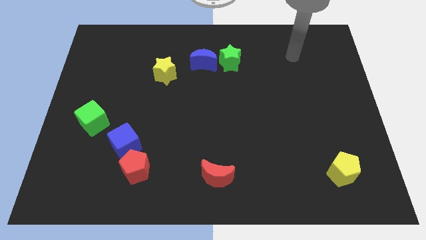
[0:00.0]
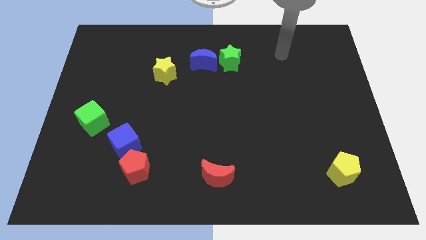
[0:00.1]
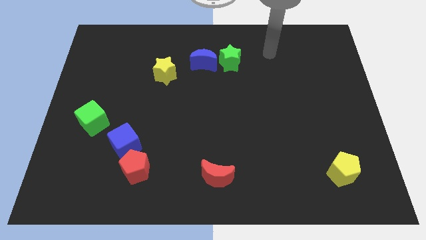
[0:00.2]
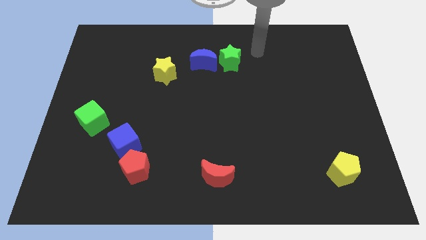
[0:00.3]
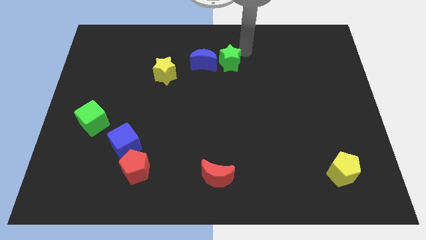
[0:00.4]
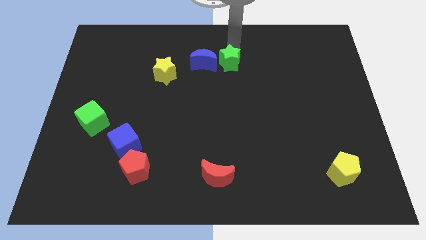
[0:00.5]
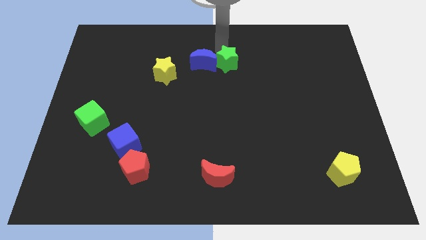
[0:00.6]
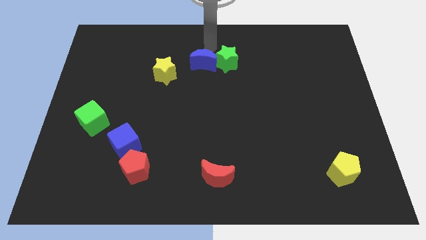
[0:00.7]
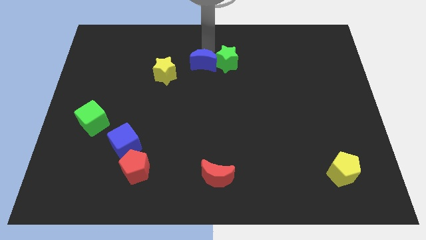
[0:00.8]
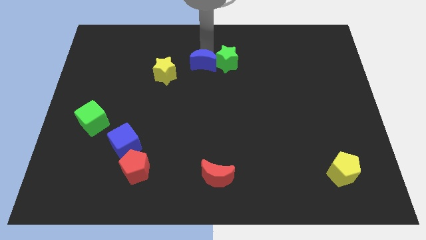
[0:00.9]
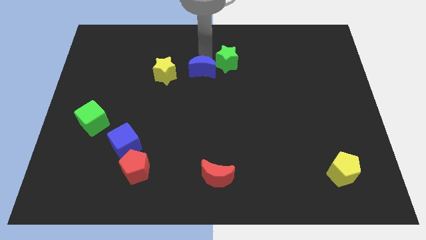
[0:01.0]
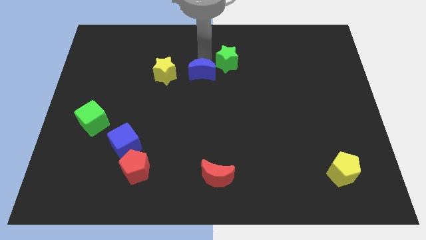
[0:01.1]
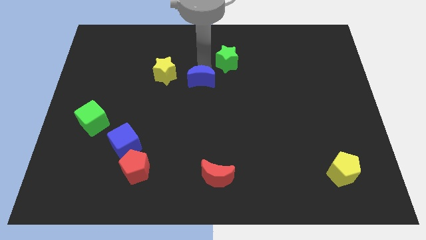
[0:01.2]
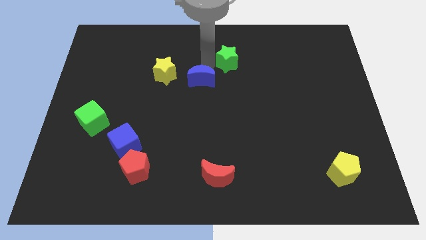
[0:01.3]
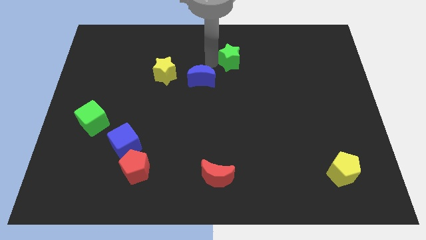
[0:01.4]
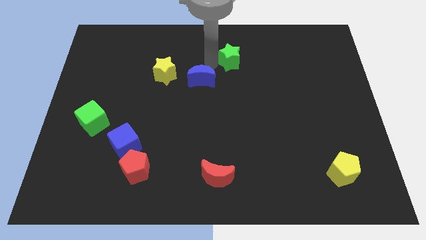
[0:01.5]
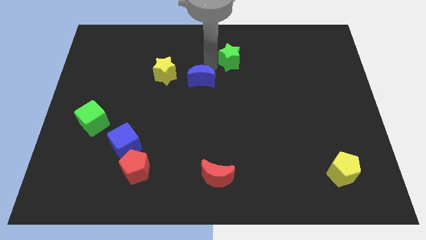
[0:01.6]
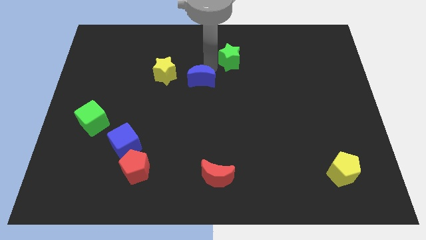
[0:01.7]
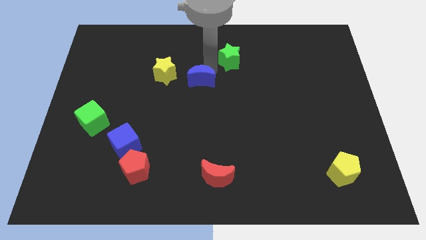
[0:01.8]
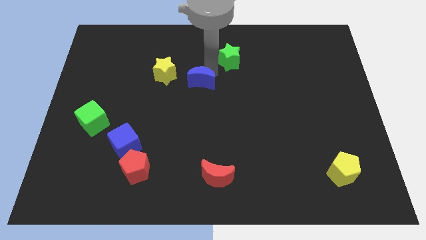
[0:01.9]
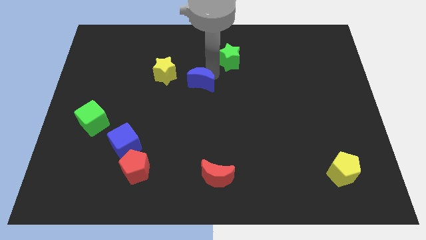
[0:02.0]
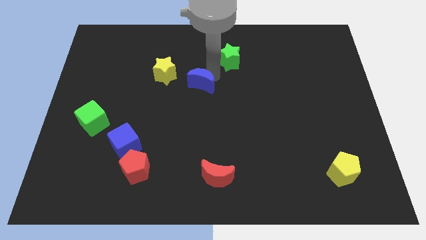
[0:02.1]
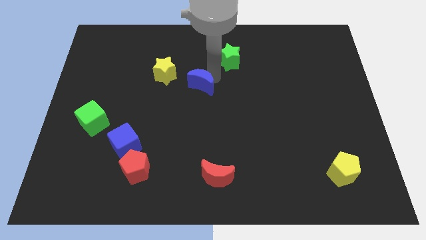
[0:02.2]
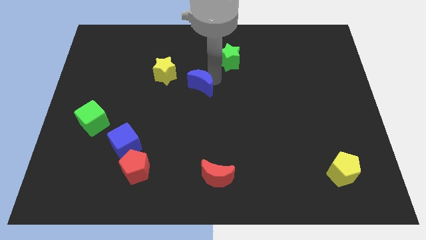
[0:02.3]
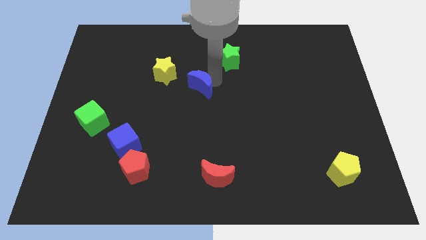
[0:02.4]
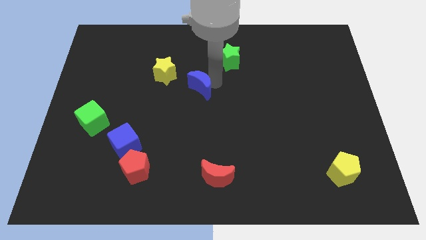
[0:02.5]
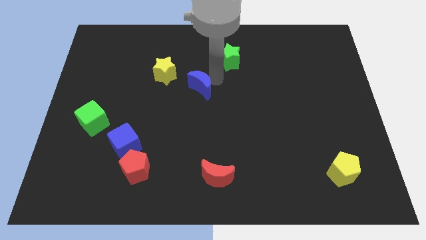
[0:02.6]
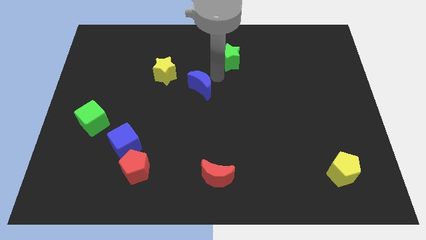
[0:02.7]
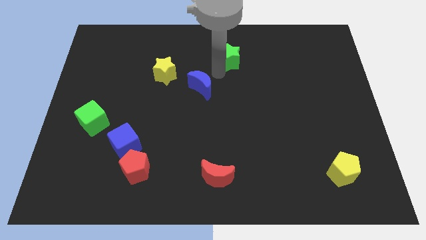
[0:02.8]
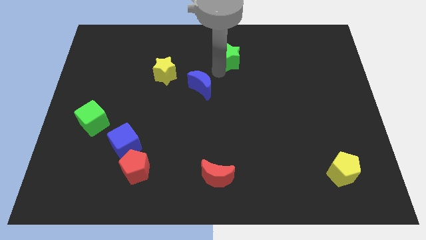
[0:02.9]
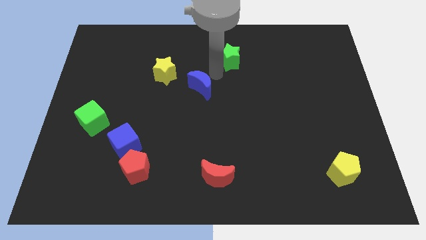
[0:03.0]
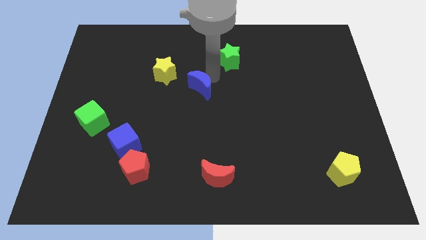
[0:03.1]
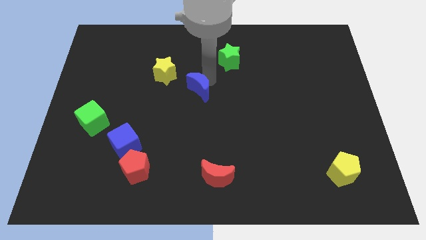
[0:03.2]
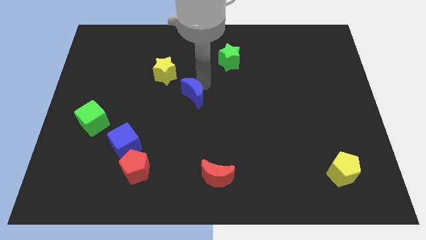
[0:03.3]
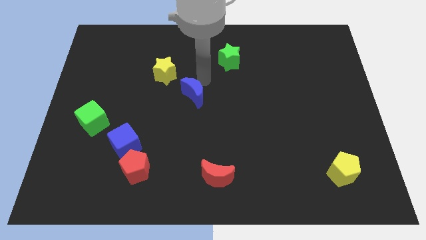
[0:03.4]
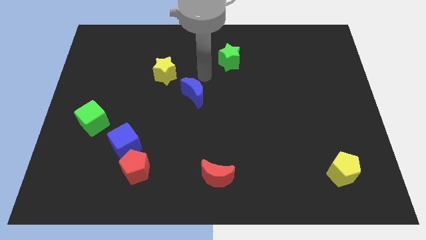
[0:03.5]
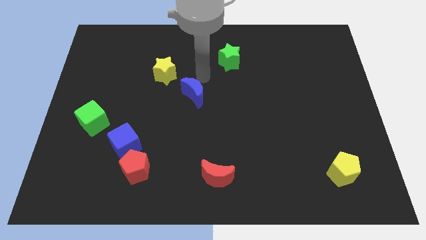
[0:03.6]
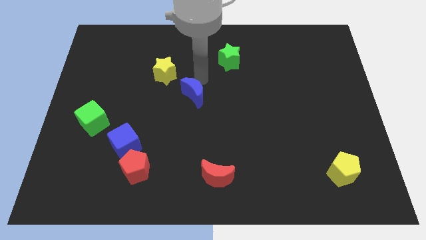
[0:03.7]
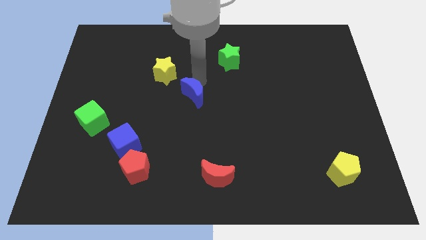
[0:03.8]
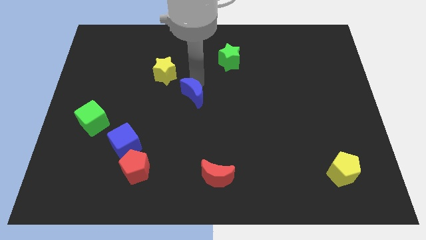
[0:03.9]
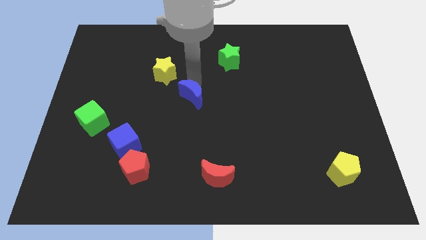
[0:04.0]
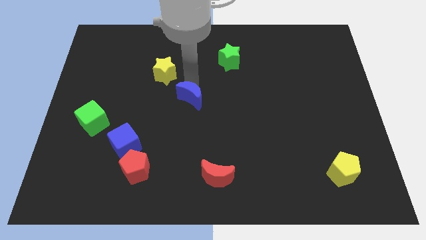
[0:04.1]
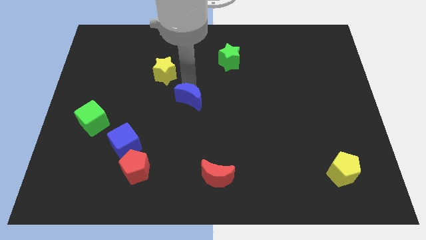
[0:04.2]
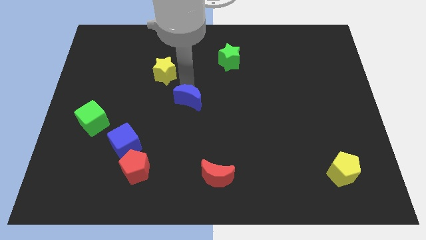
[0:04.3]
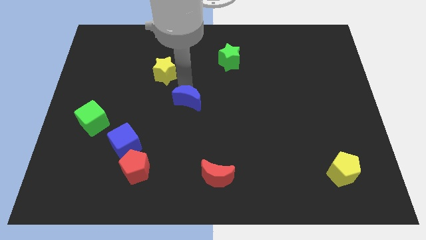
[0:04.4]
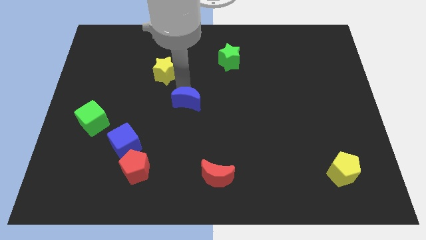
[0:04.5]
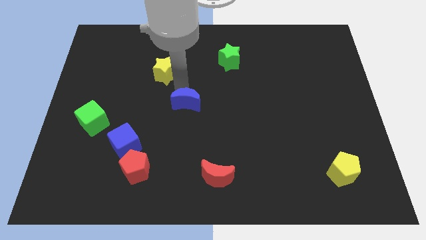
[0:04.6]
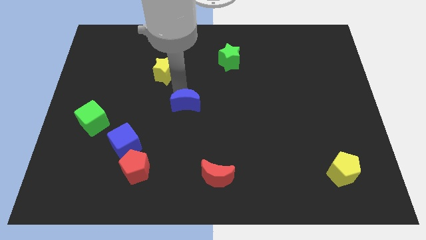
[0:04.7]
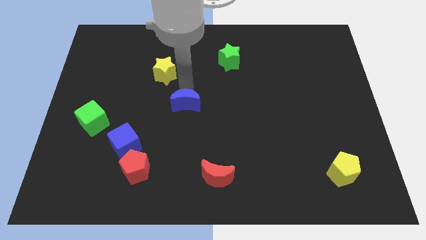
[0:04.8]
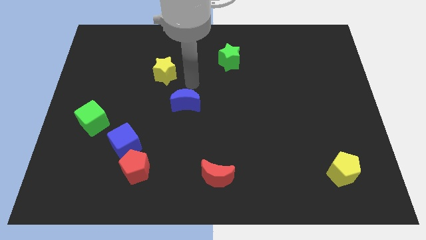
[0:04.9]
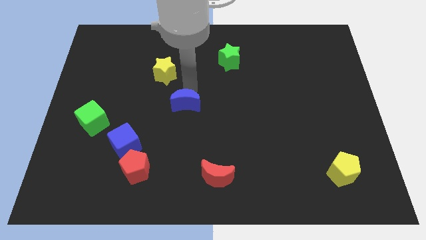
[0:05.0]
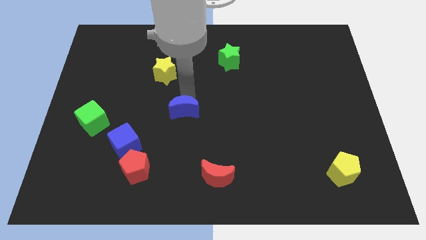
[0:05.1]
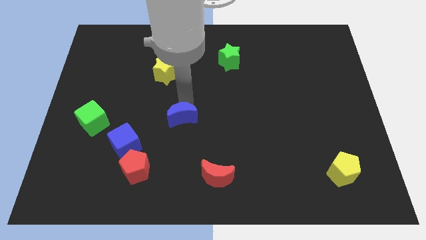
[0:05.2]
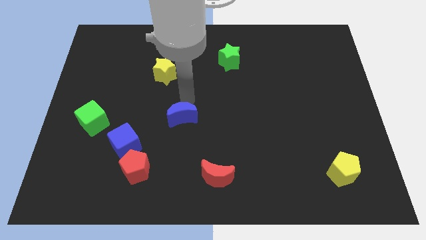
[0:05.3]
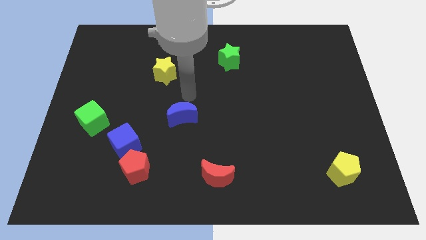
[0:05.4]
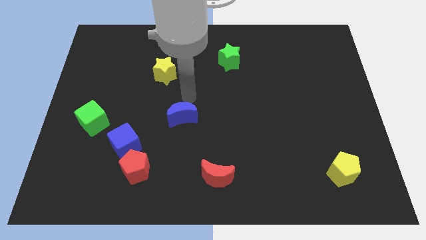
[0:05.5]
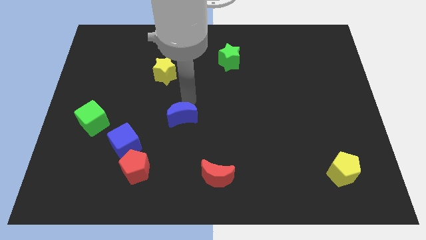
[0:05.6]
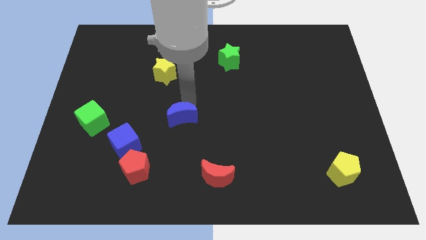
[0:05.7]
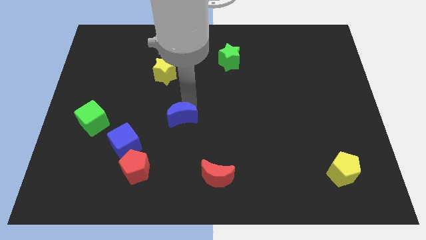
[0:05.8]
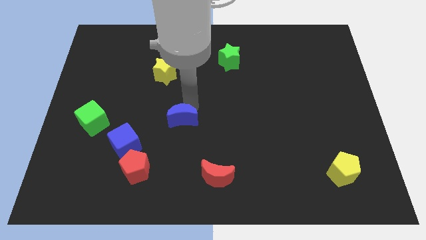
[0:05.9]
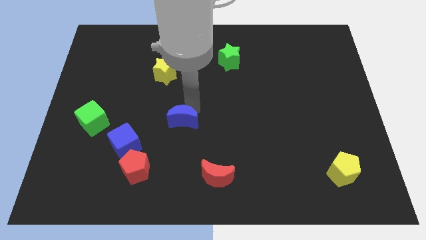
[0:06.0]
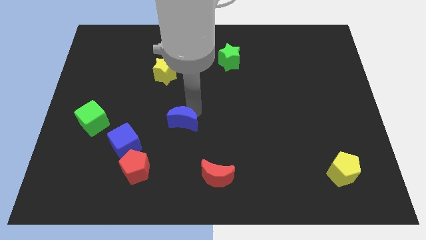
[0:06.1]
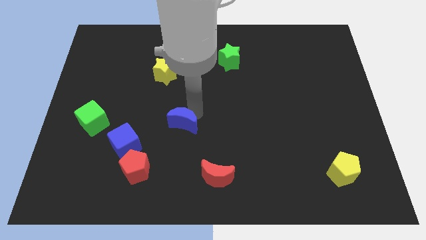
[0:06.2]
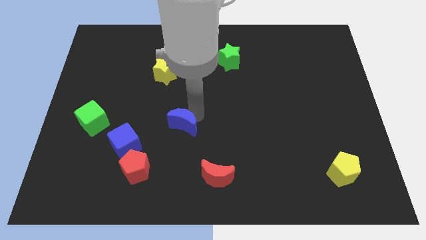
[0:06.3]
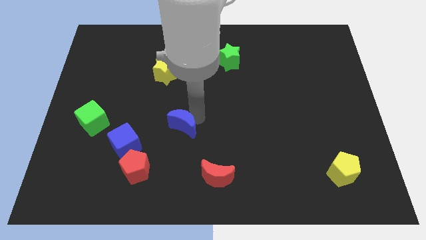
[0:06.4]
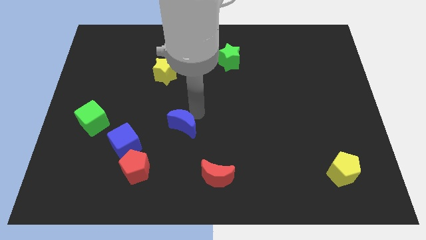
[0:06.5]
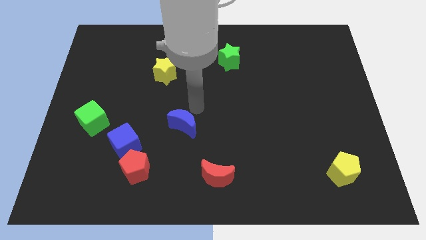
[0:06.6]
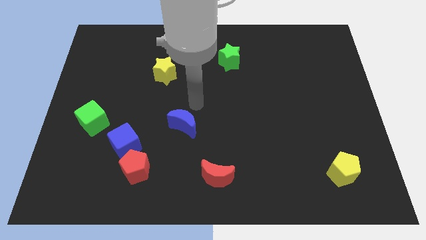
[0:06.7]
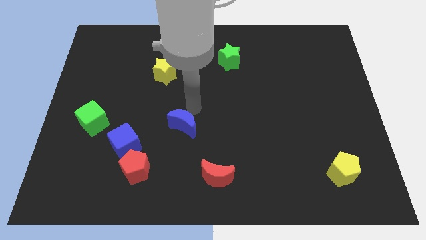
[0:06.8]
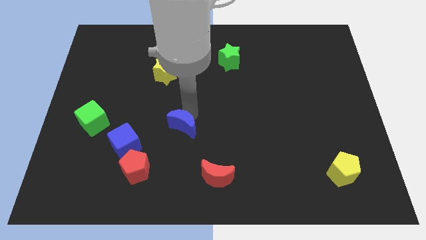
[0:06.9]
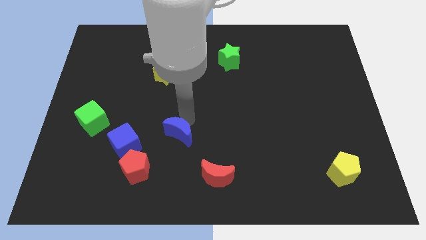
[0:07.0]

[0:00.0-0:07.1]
put the blue moon just right of the blue cube

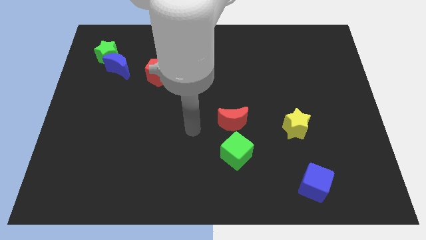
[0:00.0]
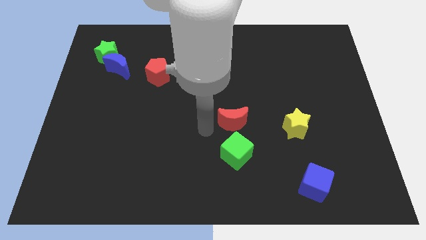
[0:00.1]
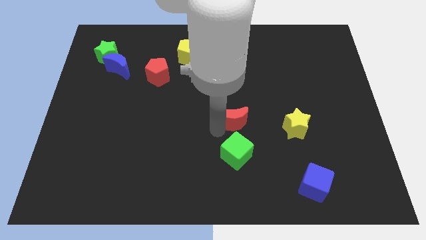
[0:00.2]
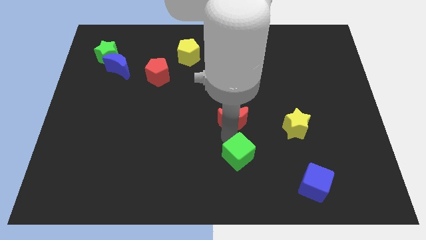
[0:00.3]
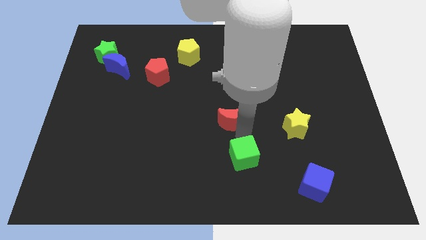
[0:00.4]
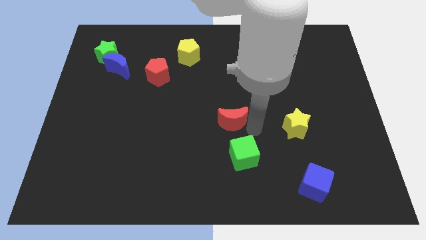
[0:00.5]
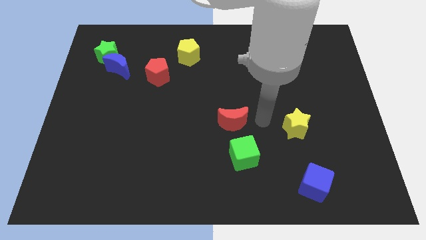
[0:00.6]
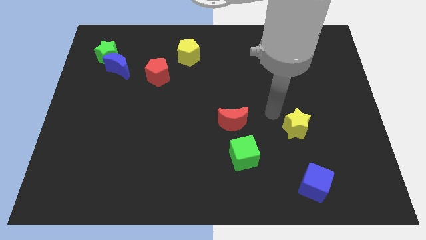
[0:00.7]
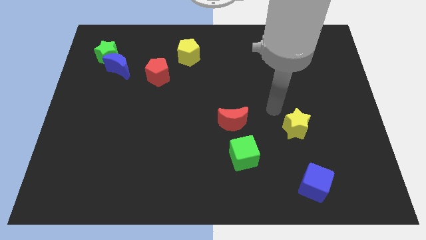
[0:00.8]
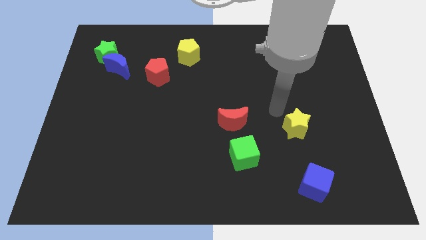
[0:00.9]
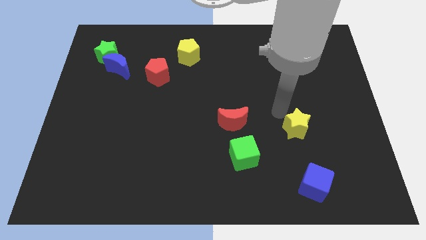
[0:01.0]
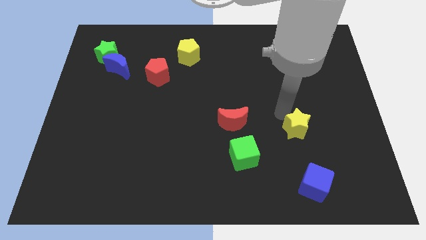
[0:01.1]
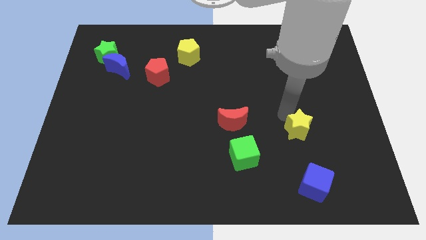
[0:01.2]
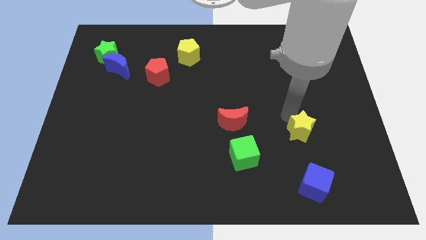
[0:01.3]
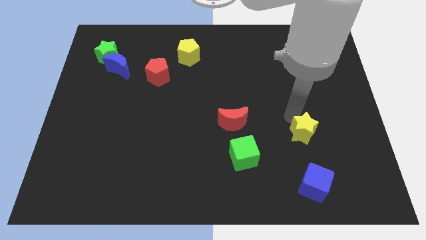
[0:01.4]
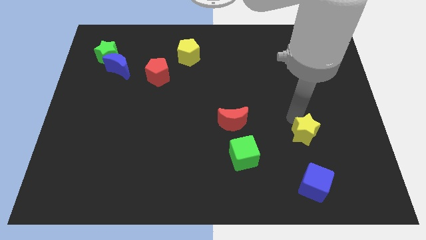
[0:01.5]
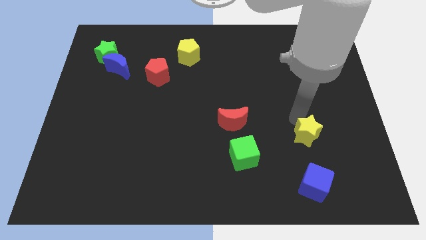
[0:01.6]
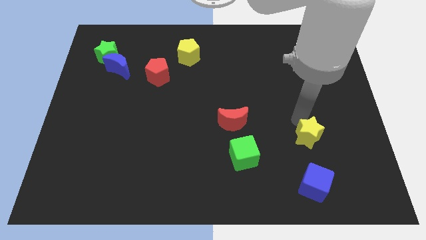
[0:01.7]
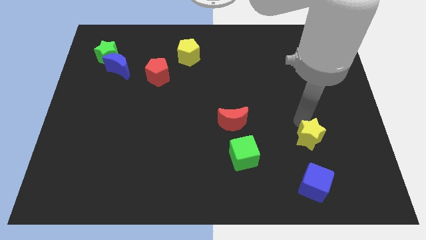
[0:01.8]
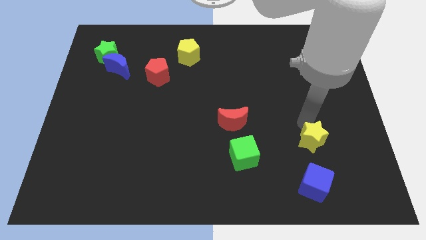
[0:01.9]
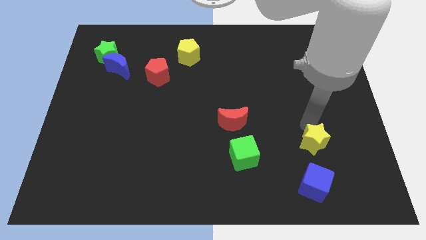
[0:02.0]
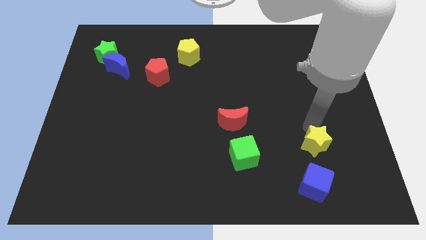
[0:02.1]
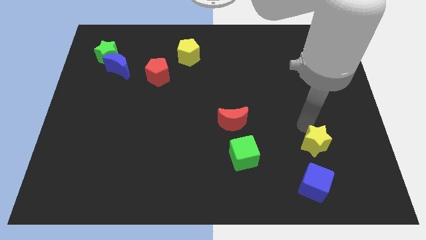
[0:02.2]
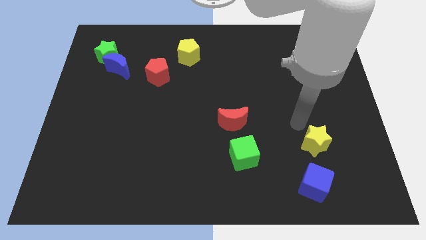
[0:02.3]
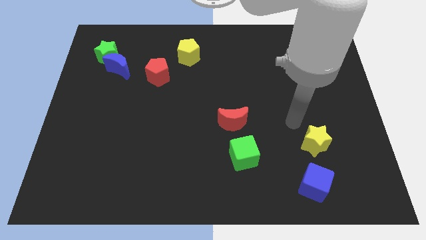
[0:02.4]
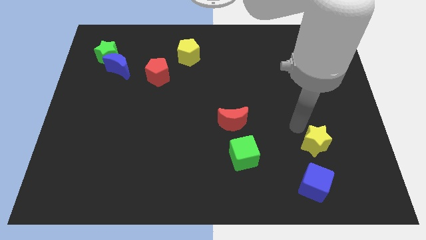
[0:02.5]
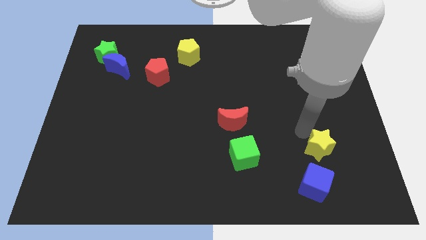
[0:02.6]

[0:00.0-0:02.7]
move the yellow star to the top right side of the blue cube
